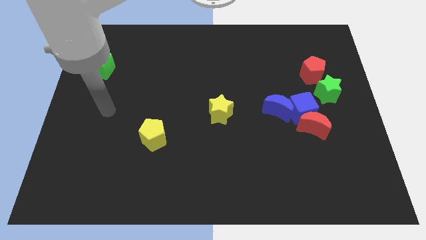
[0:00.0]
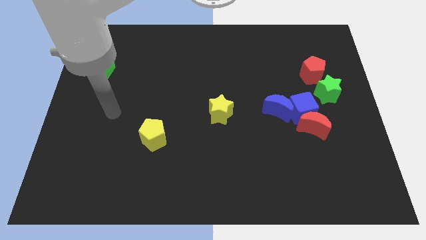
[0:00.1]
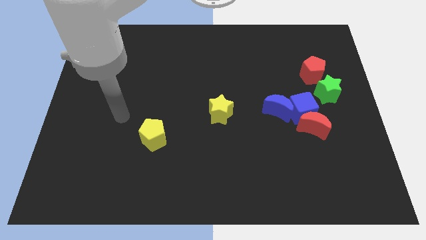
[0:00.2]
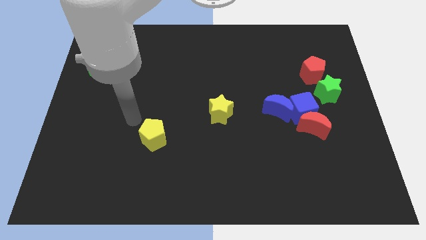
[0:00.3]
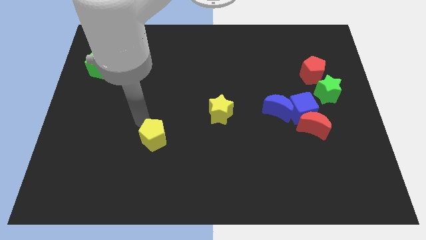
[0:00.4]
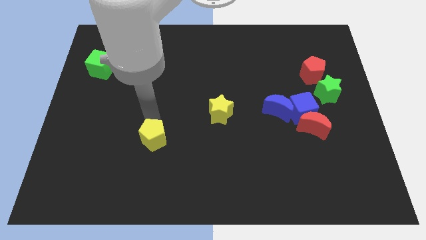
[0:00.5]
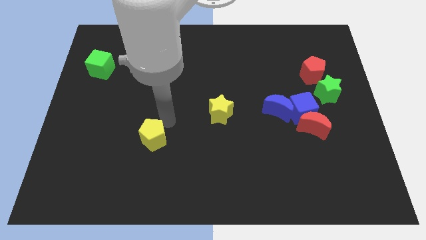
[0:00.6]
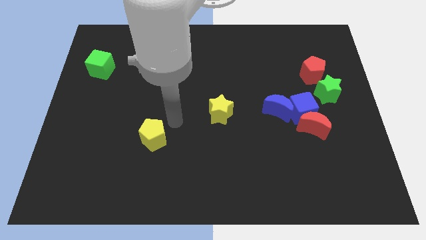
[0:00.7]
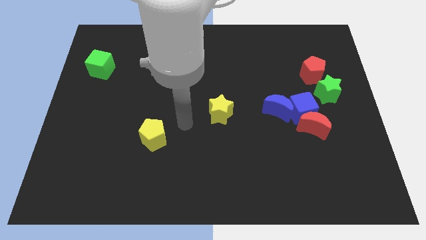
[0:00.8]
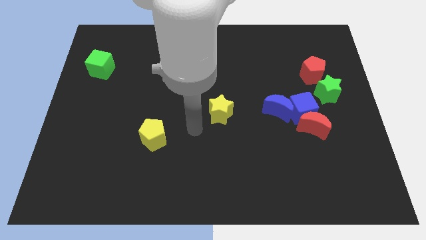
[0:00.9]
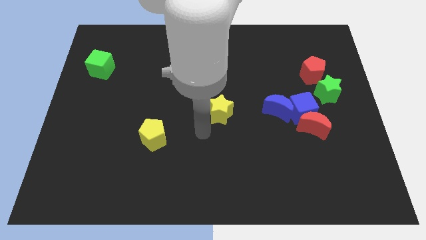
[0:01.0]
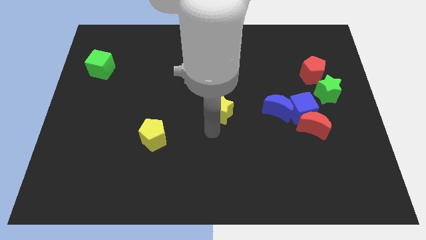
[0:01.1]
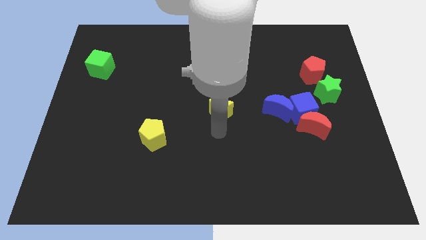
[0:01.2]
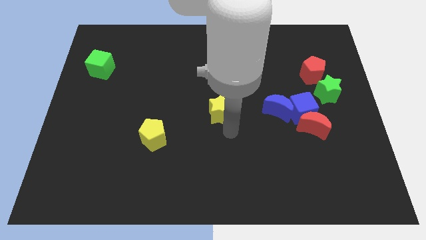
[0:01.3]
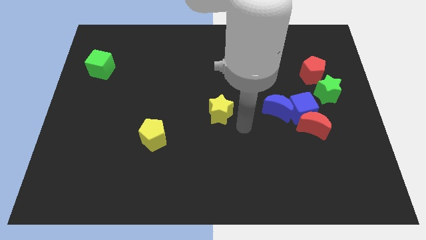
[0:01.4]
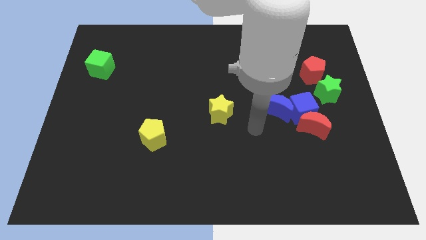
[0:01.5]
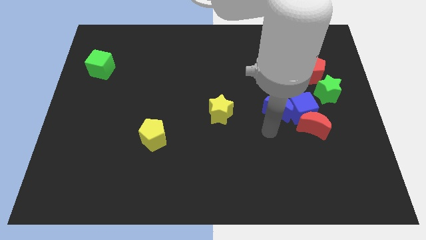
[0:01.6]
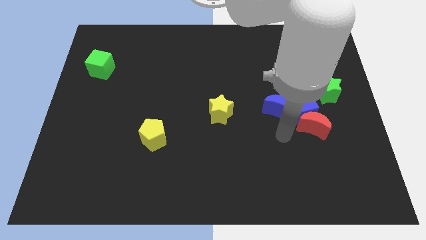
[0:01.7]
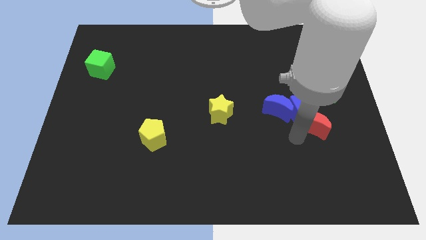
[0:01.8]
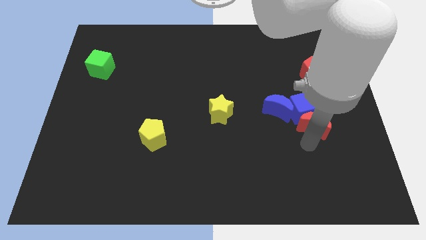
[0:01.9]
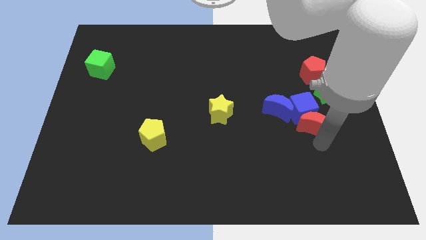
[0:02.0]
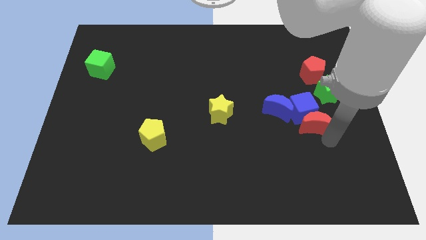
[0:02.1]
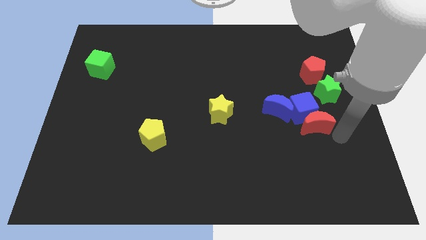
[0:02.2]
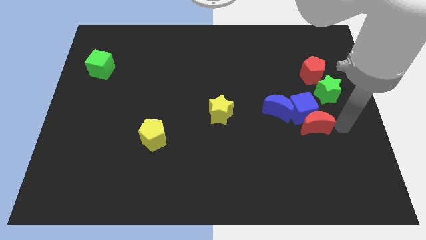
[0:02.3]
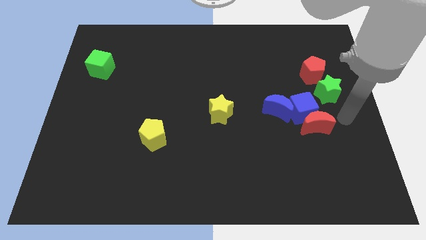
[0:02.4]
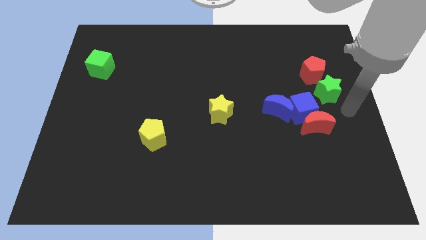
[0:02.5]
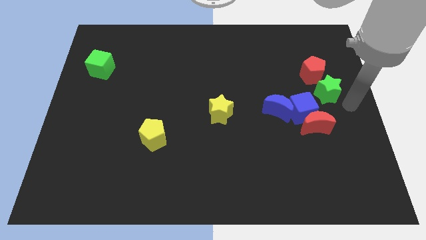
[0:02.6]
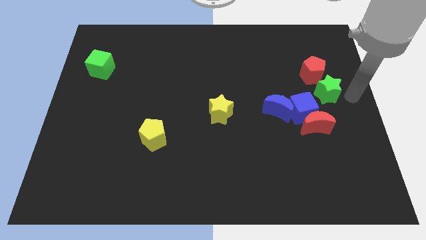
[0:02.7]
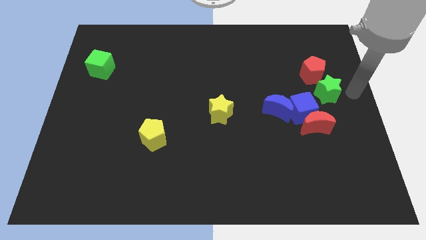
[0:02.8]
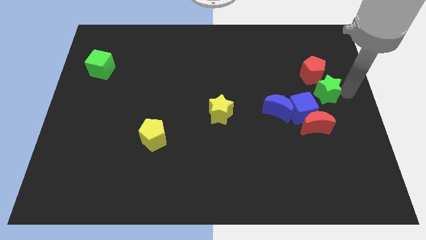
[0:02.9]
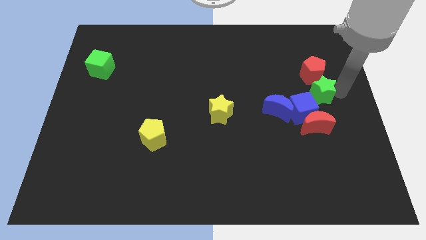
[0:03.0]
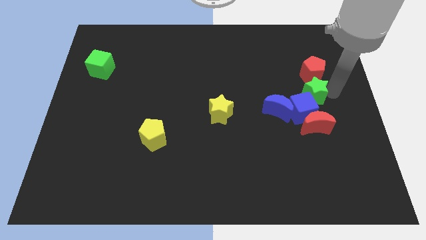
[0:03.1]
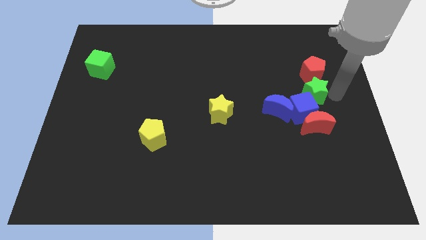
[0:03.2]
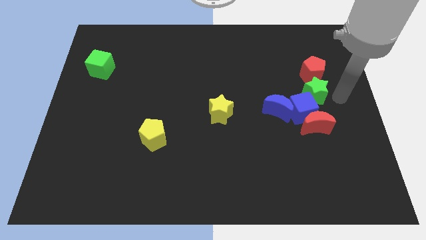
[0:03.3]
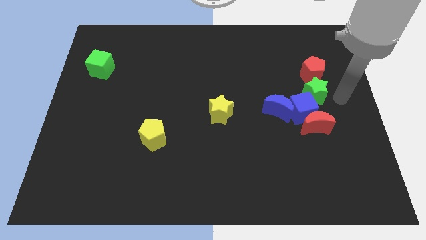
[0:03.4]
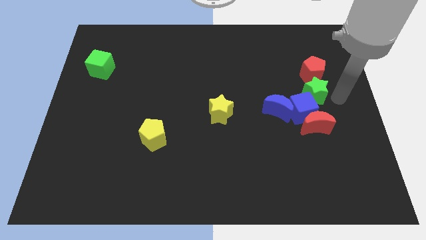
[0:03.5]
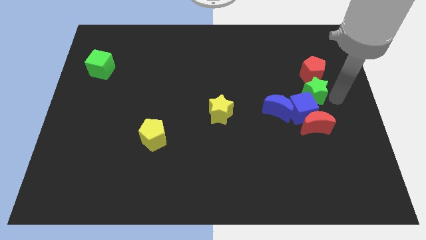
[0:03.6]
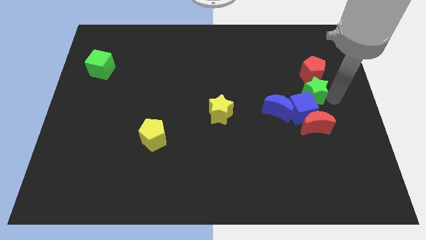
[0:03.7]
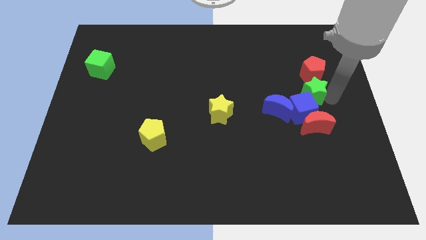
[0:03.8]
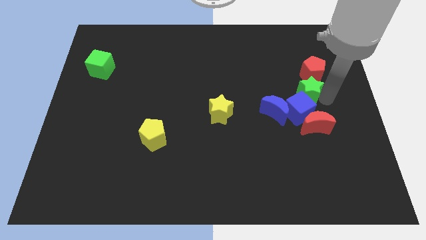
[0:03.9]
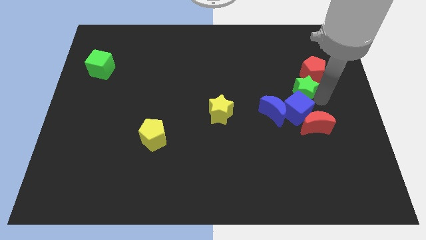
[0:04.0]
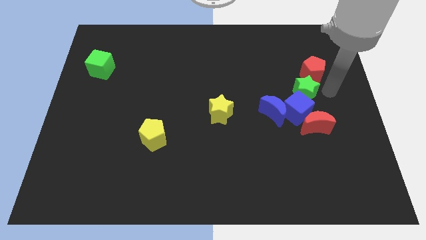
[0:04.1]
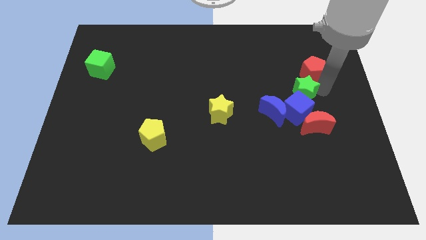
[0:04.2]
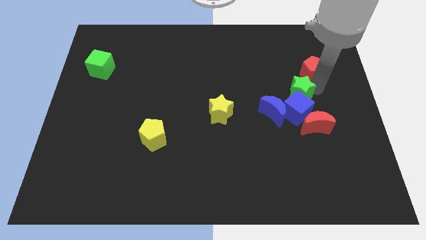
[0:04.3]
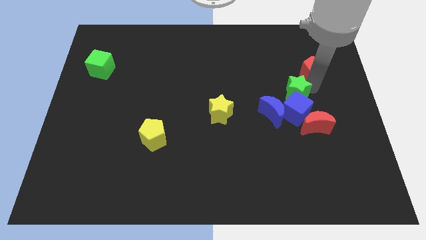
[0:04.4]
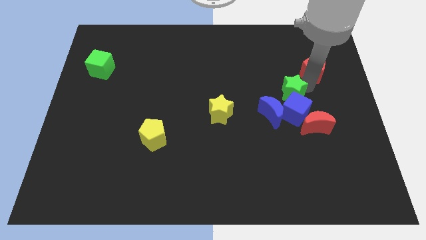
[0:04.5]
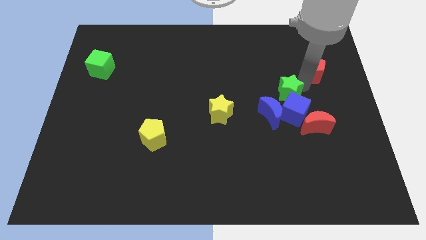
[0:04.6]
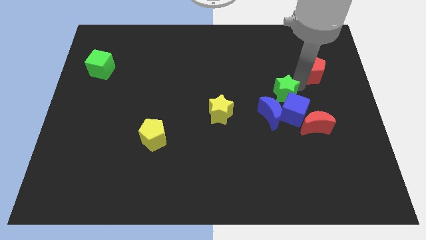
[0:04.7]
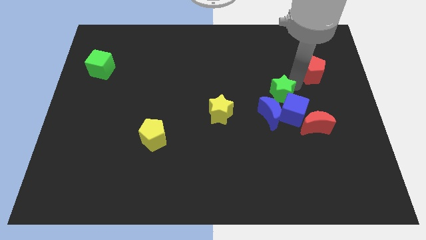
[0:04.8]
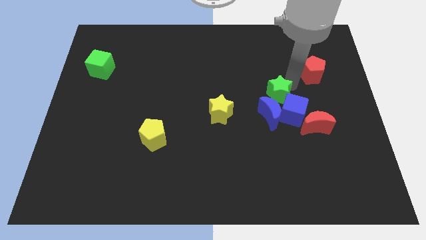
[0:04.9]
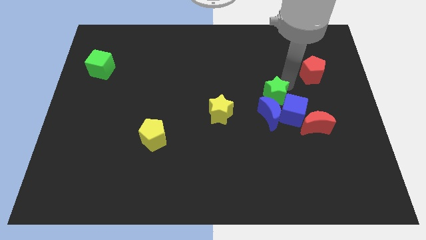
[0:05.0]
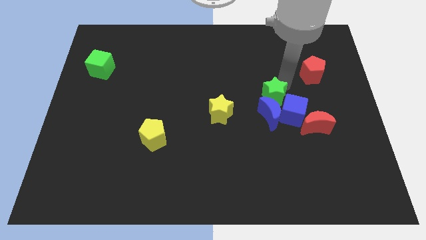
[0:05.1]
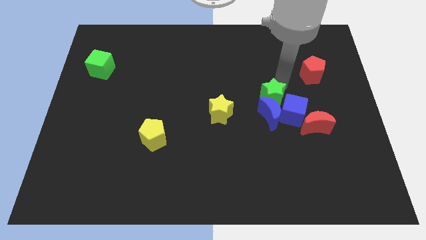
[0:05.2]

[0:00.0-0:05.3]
put the green star diagonally up and to the left of the blue moon

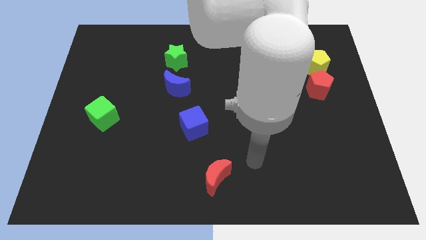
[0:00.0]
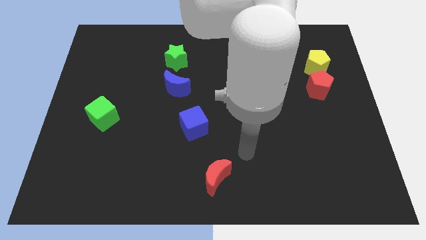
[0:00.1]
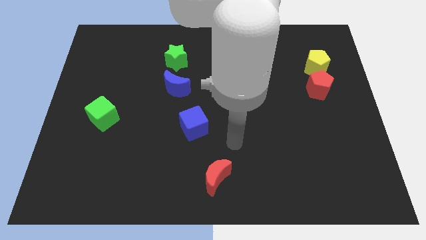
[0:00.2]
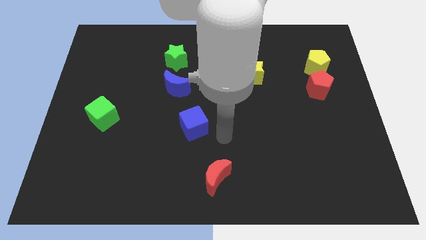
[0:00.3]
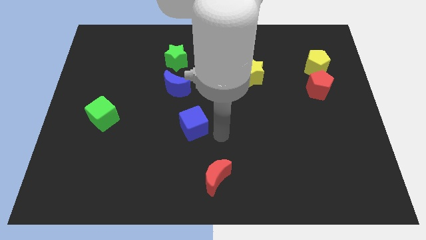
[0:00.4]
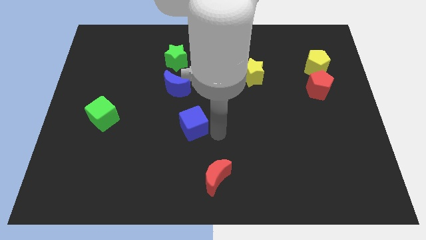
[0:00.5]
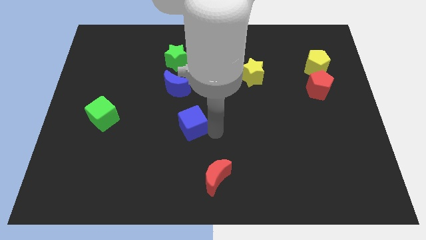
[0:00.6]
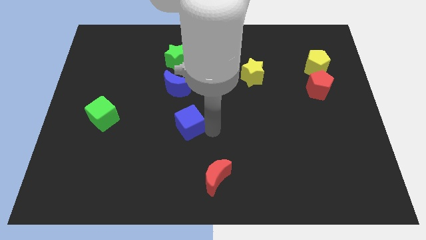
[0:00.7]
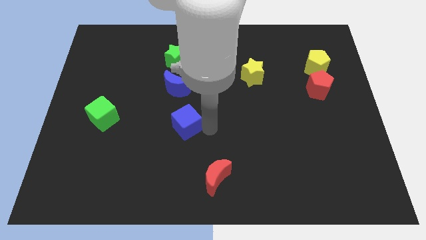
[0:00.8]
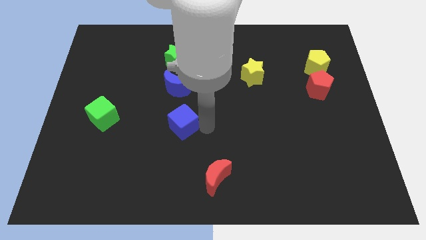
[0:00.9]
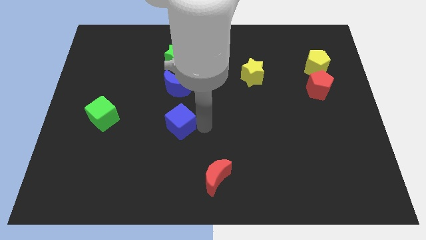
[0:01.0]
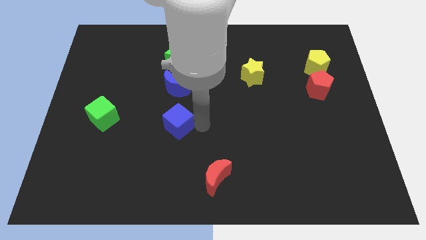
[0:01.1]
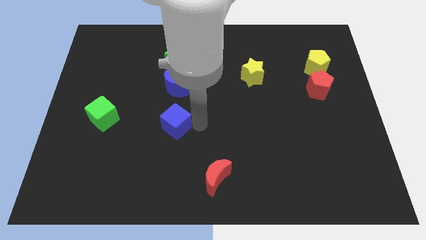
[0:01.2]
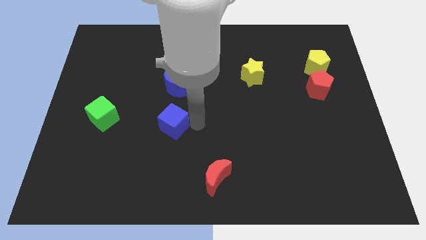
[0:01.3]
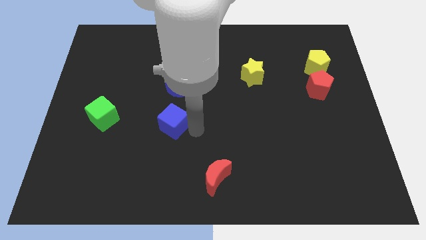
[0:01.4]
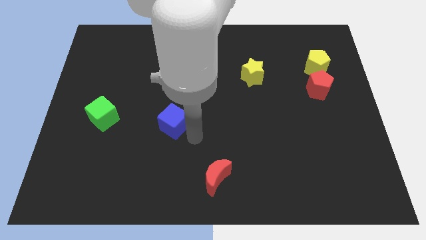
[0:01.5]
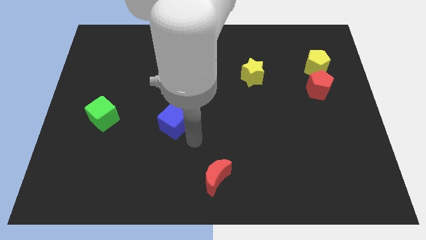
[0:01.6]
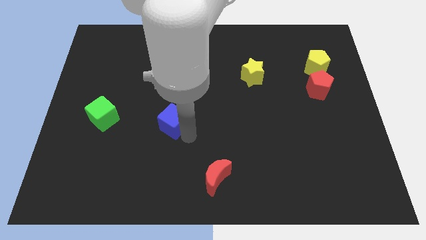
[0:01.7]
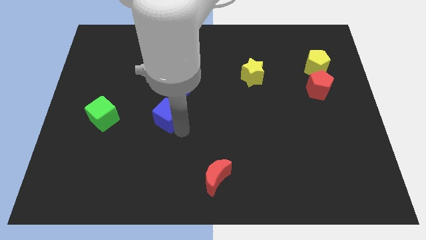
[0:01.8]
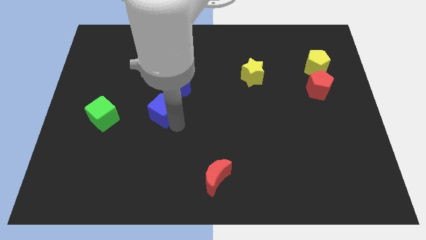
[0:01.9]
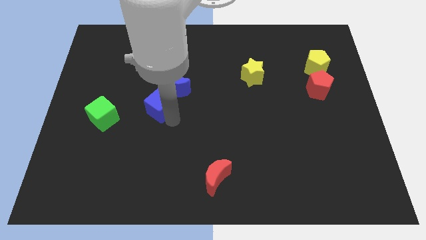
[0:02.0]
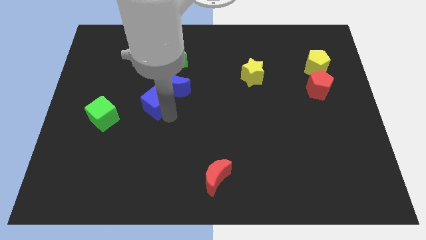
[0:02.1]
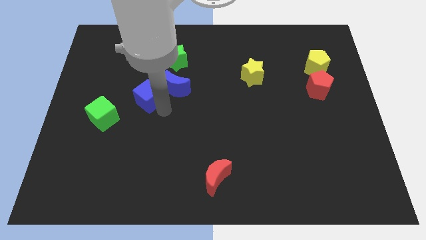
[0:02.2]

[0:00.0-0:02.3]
put the blue cube to the left side of the blue moon
